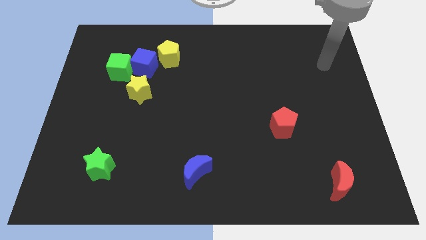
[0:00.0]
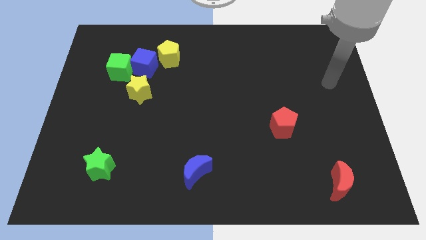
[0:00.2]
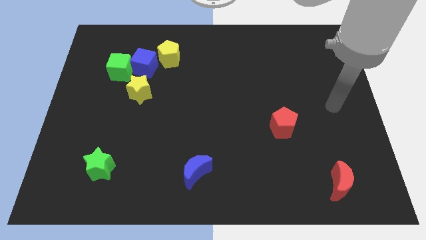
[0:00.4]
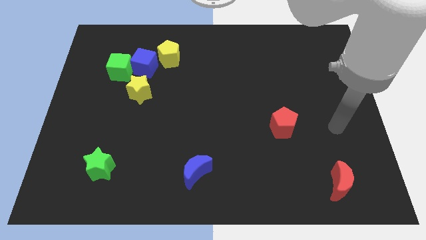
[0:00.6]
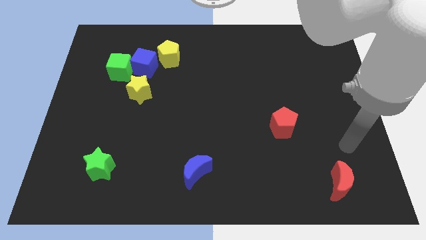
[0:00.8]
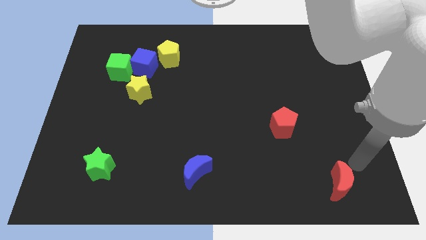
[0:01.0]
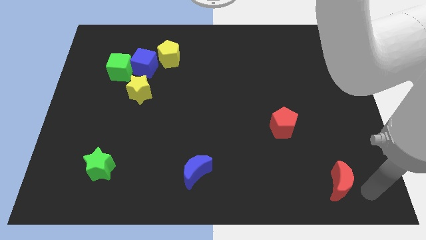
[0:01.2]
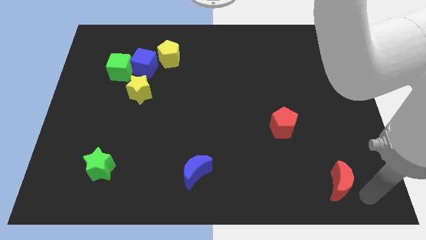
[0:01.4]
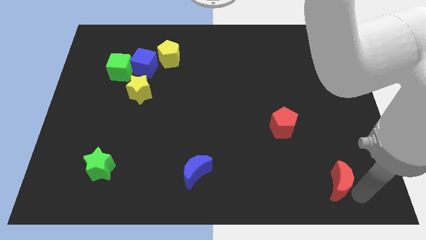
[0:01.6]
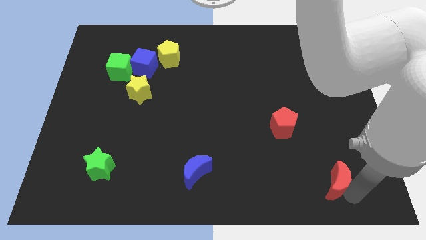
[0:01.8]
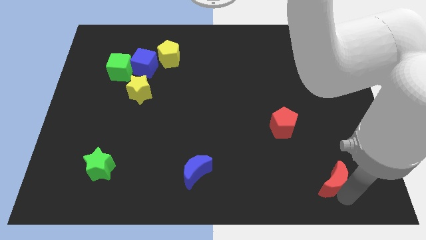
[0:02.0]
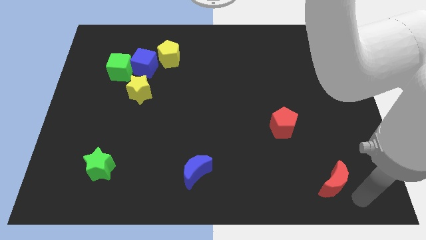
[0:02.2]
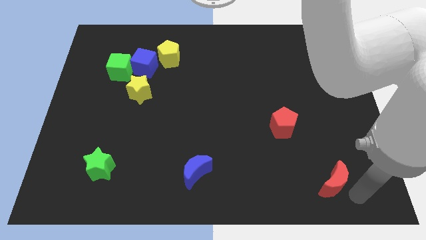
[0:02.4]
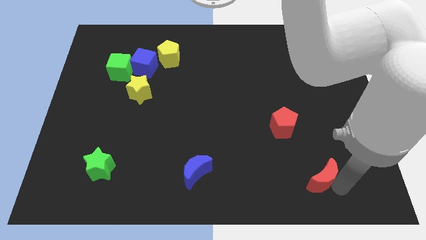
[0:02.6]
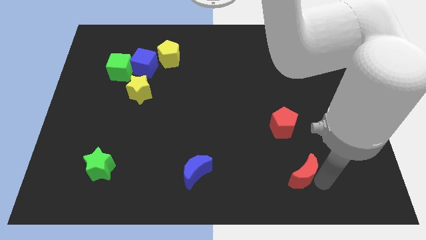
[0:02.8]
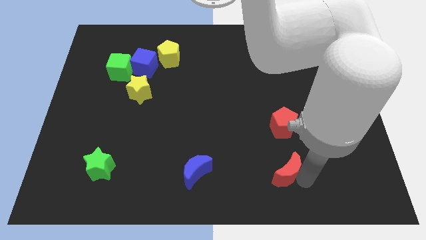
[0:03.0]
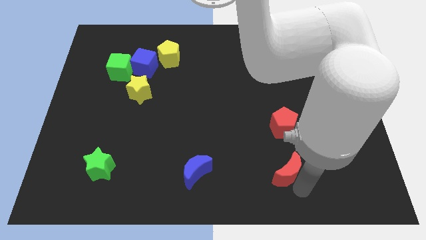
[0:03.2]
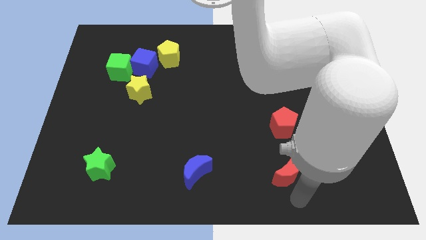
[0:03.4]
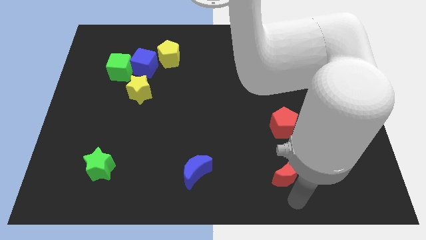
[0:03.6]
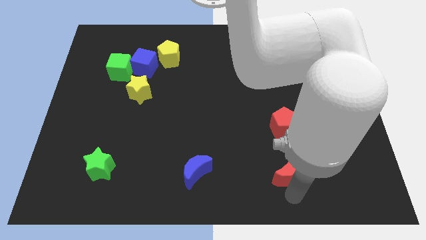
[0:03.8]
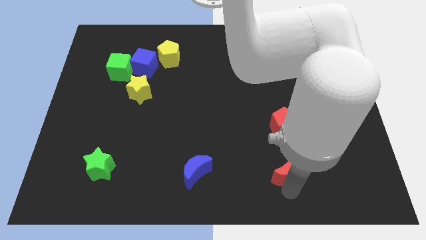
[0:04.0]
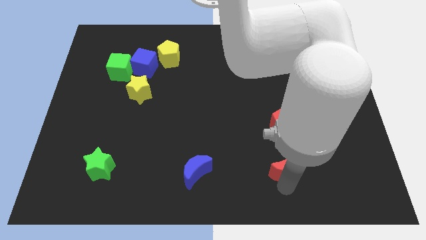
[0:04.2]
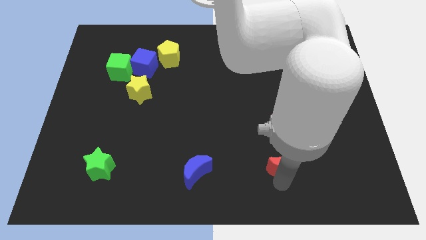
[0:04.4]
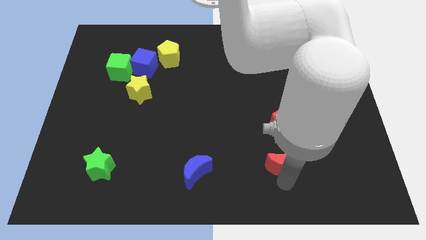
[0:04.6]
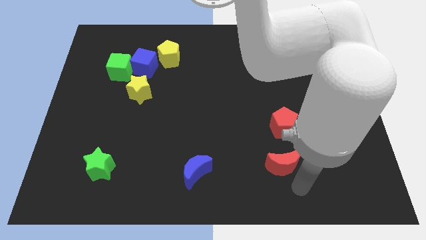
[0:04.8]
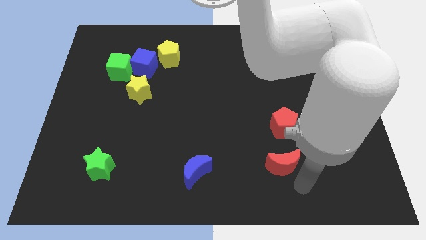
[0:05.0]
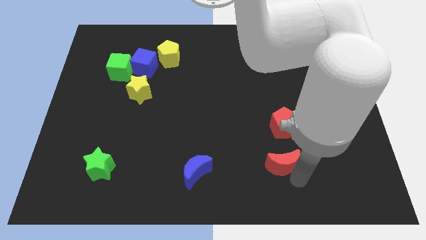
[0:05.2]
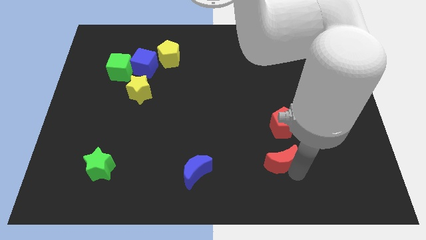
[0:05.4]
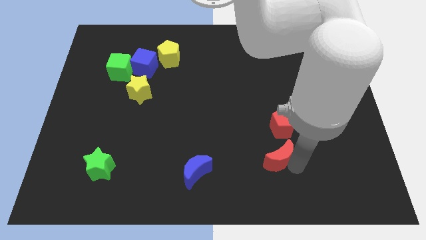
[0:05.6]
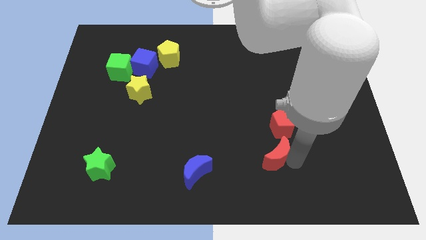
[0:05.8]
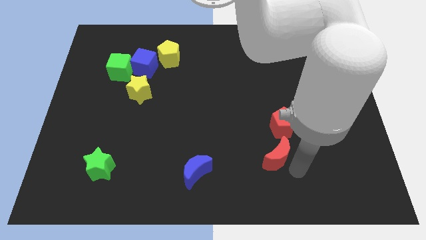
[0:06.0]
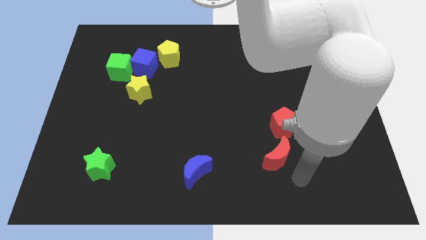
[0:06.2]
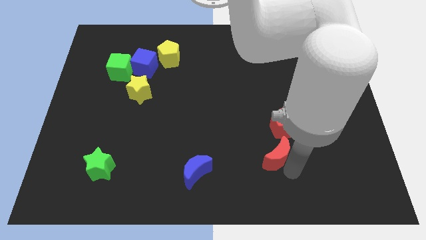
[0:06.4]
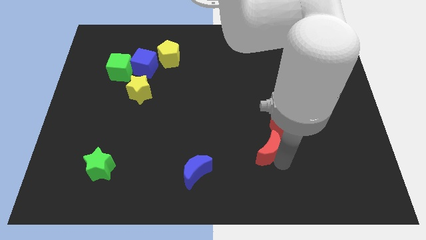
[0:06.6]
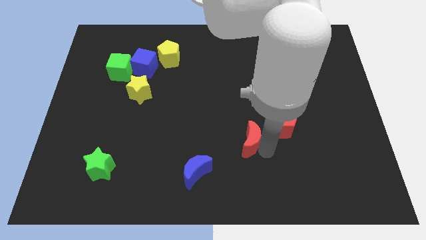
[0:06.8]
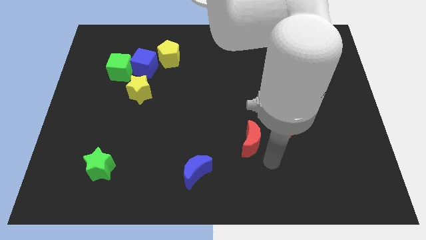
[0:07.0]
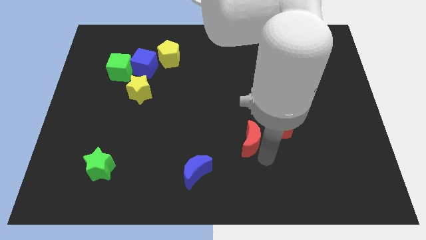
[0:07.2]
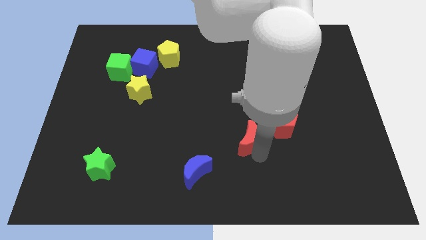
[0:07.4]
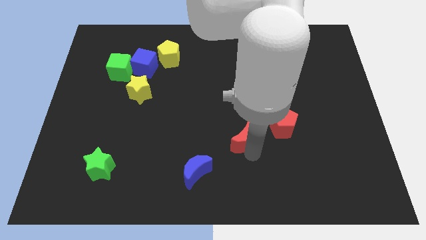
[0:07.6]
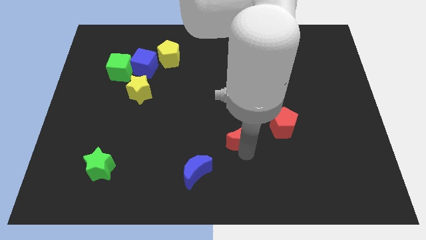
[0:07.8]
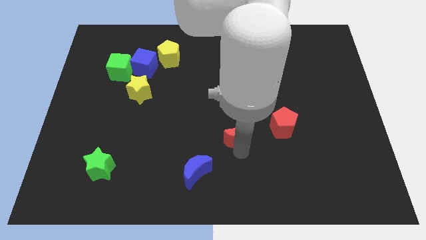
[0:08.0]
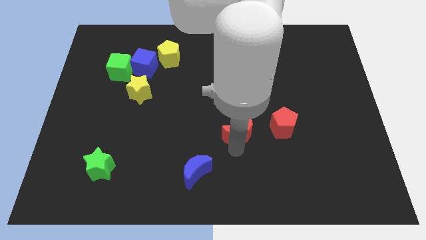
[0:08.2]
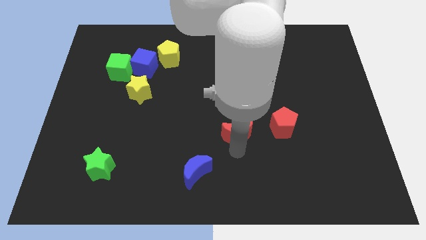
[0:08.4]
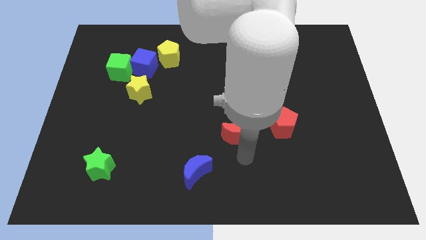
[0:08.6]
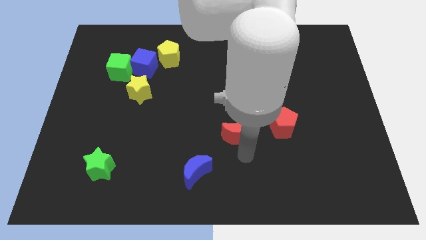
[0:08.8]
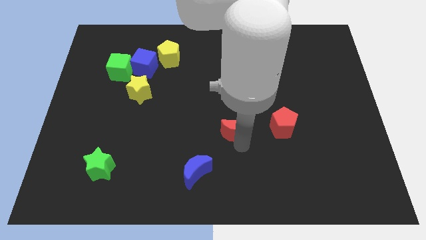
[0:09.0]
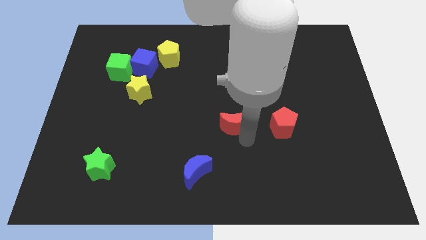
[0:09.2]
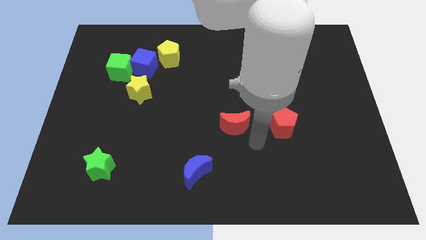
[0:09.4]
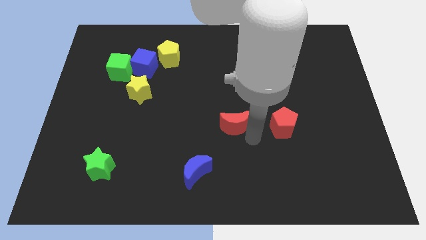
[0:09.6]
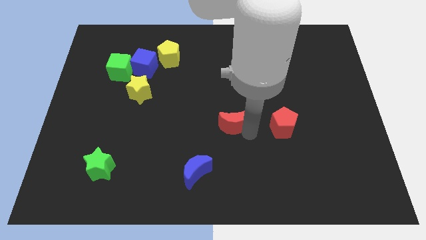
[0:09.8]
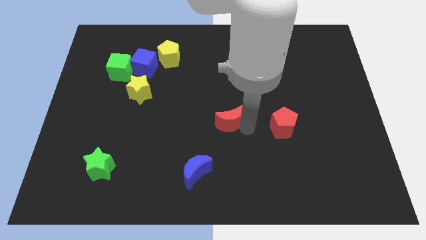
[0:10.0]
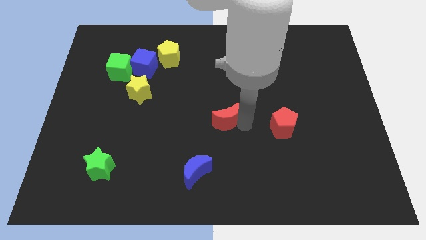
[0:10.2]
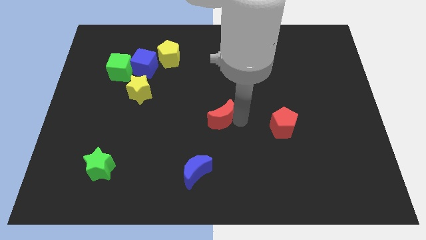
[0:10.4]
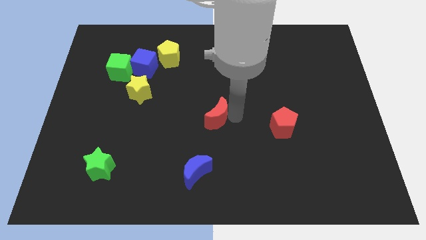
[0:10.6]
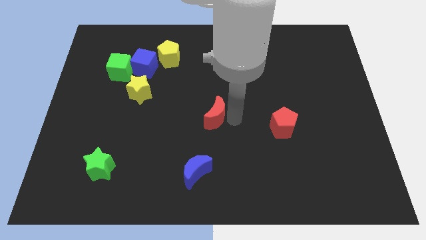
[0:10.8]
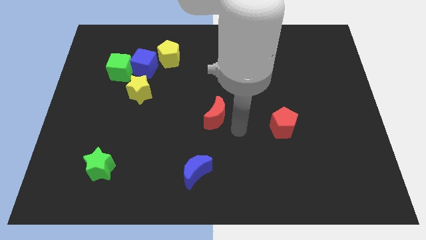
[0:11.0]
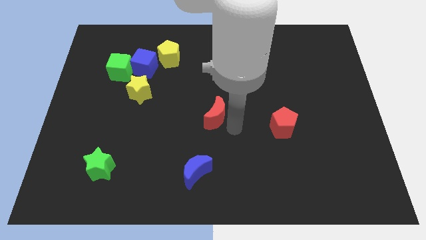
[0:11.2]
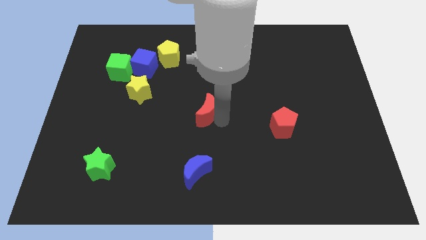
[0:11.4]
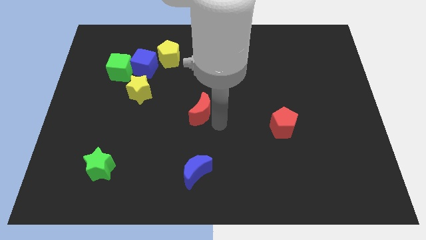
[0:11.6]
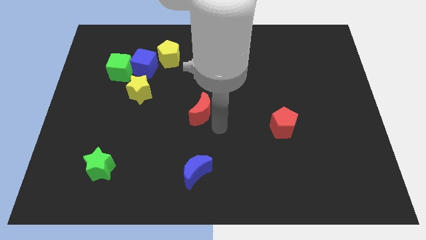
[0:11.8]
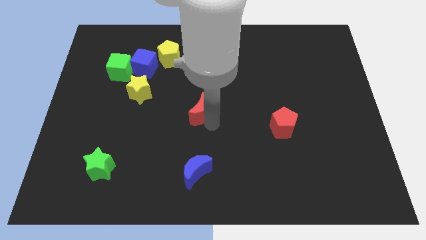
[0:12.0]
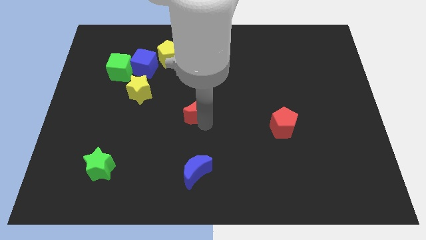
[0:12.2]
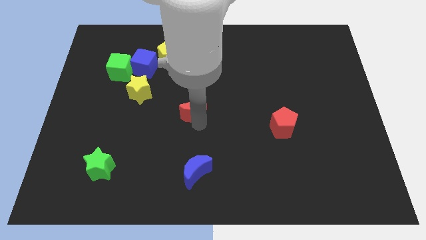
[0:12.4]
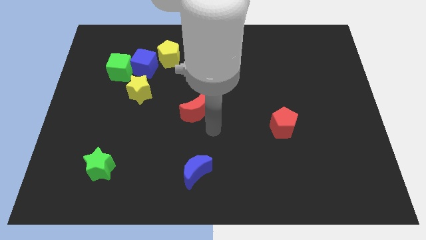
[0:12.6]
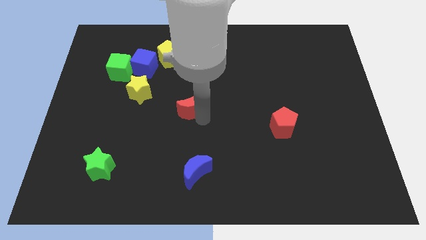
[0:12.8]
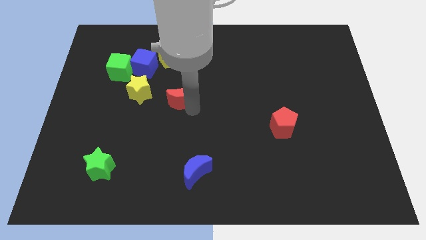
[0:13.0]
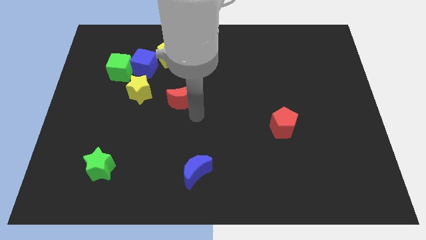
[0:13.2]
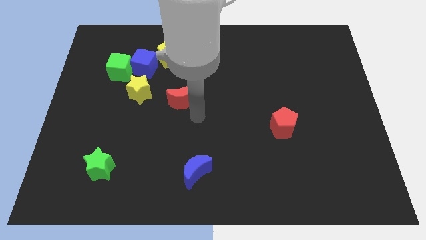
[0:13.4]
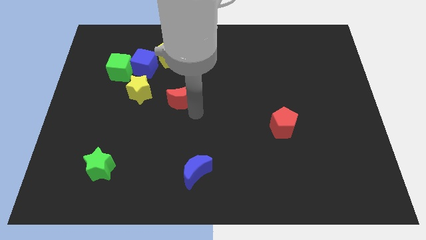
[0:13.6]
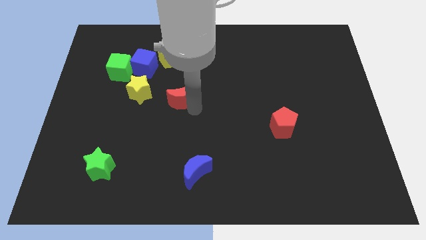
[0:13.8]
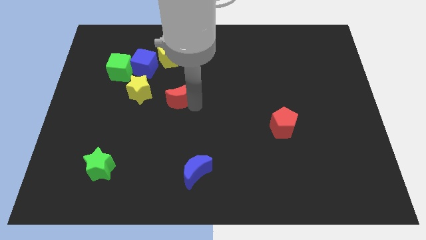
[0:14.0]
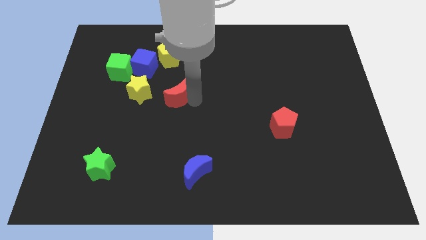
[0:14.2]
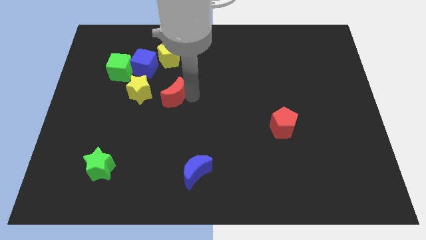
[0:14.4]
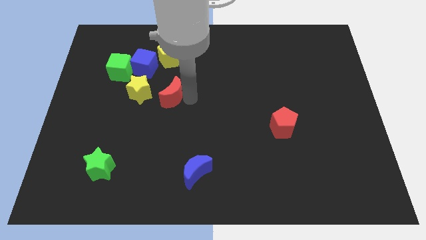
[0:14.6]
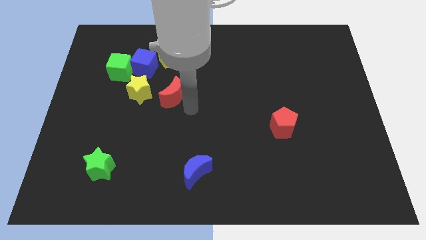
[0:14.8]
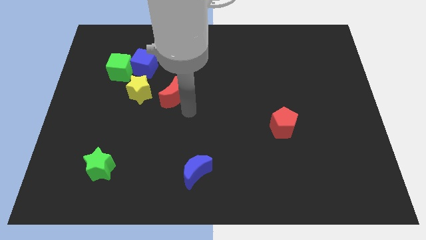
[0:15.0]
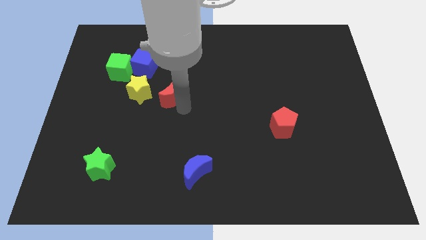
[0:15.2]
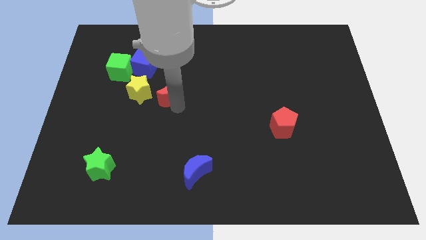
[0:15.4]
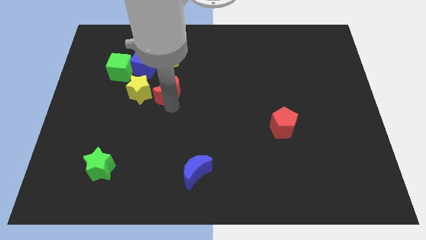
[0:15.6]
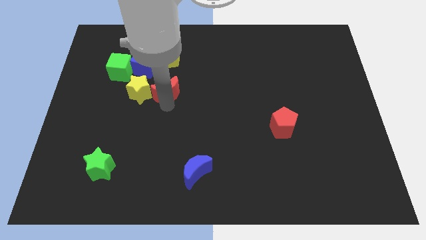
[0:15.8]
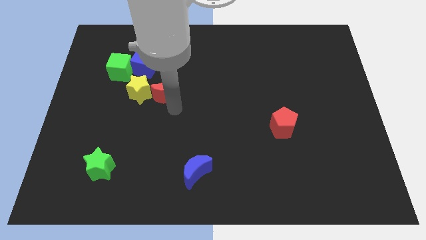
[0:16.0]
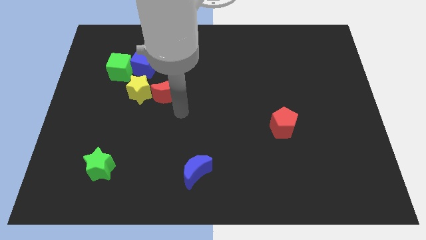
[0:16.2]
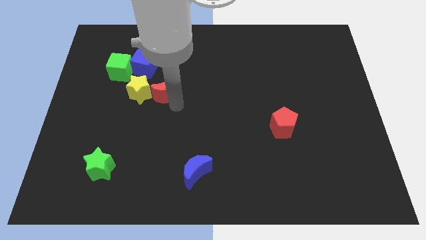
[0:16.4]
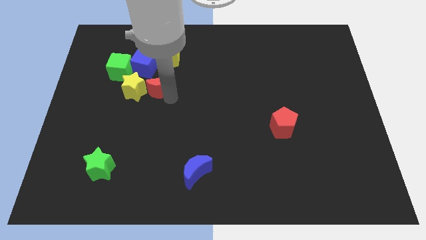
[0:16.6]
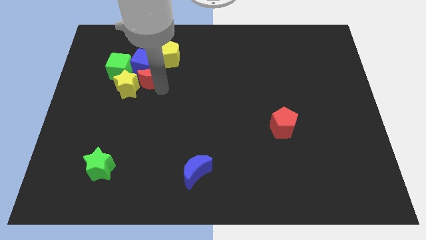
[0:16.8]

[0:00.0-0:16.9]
push the red moon to the blue cube
